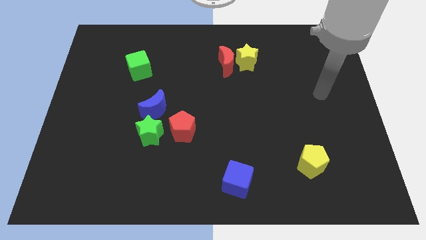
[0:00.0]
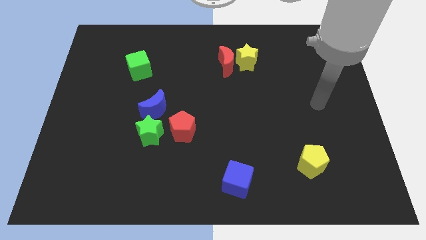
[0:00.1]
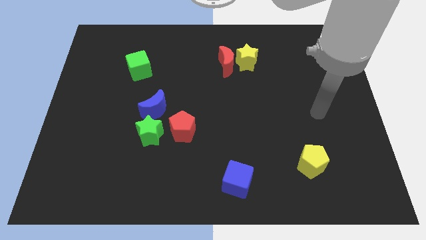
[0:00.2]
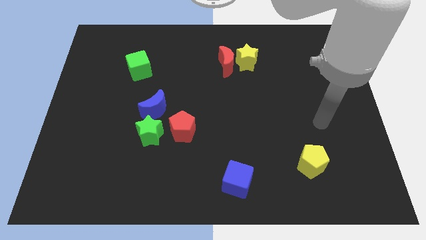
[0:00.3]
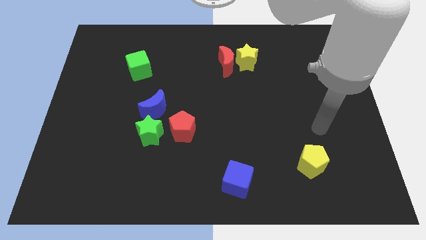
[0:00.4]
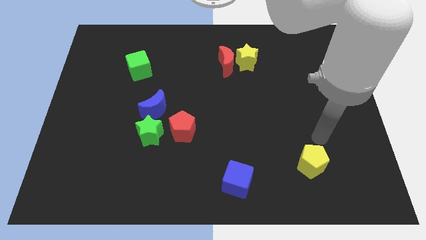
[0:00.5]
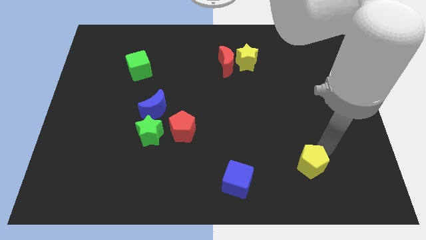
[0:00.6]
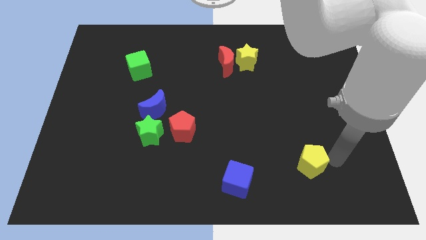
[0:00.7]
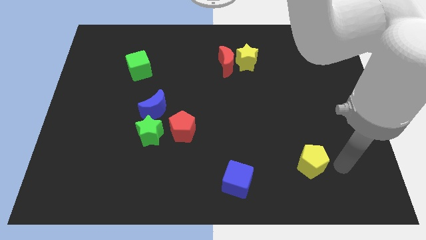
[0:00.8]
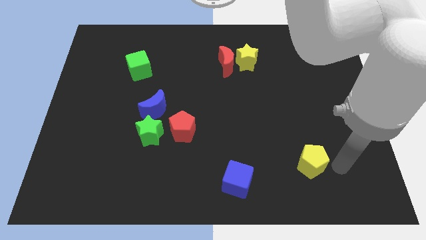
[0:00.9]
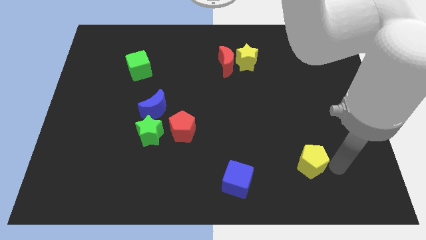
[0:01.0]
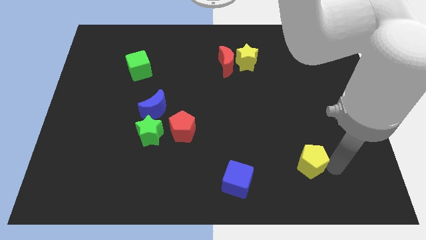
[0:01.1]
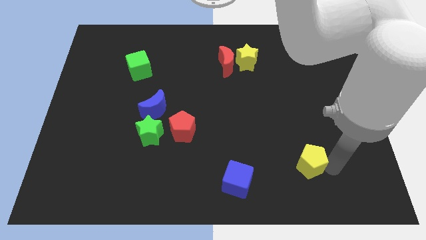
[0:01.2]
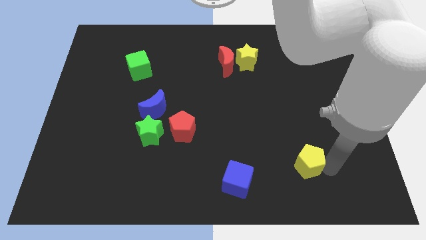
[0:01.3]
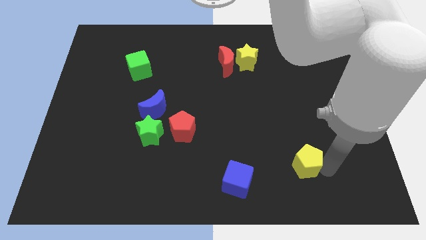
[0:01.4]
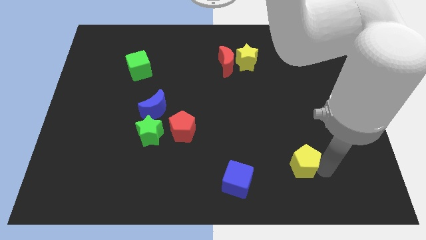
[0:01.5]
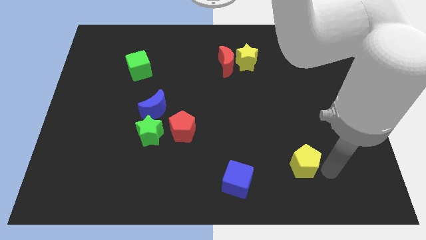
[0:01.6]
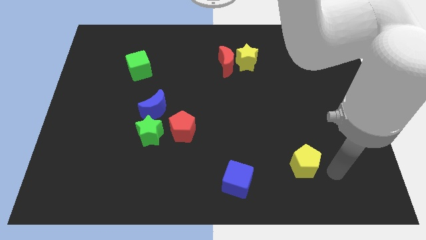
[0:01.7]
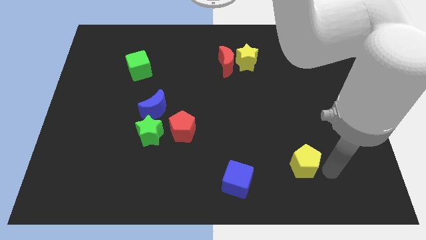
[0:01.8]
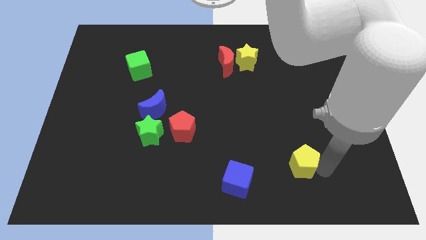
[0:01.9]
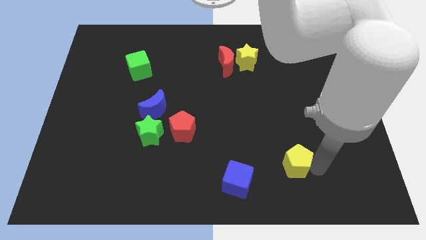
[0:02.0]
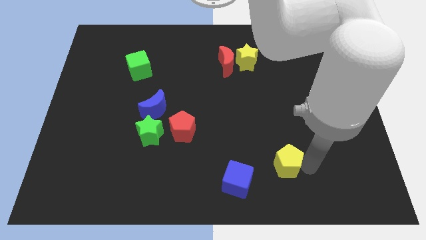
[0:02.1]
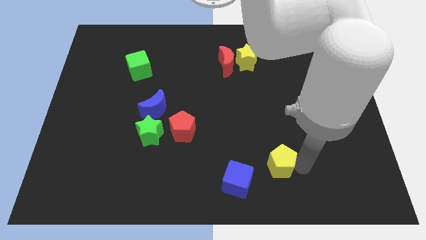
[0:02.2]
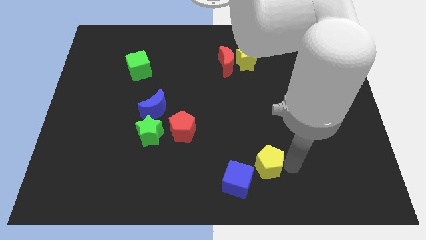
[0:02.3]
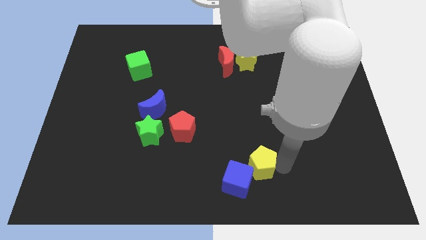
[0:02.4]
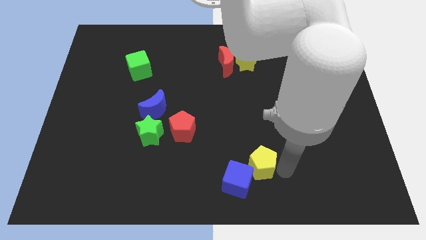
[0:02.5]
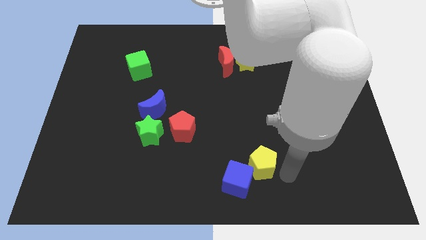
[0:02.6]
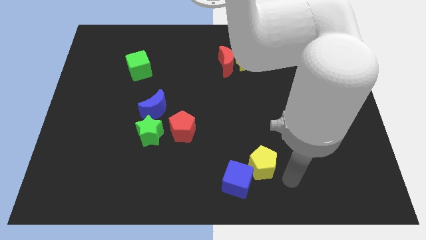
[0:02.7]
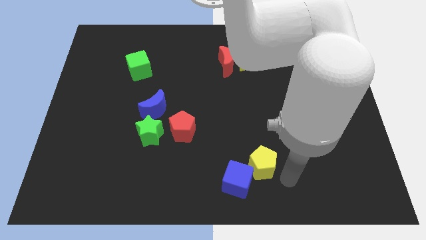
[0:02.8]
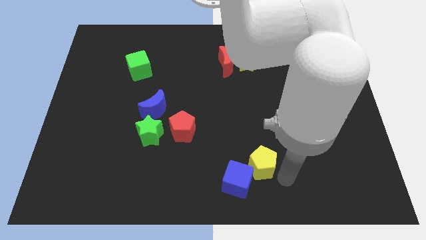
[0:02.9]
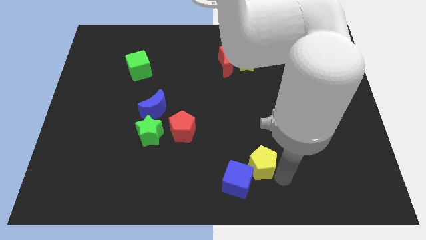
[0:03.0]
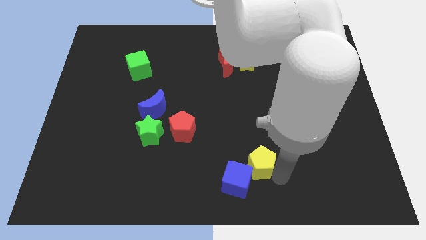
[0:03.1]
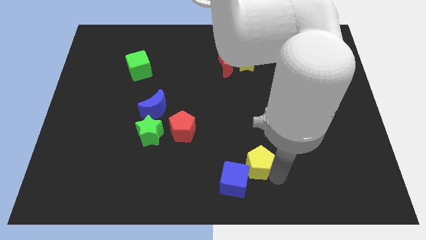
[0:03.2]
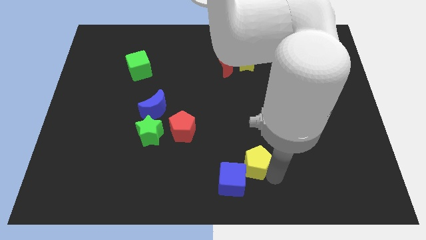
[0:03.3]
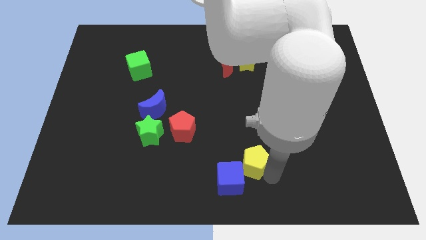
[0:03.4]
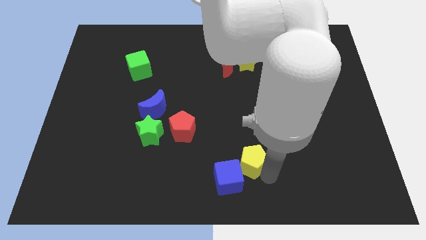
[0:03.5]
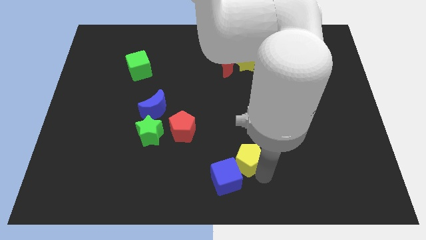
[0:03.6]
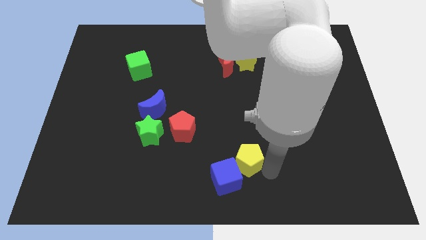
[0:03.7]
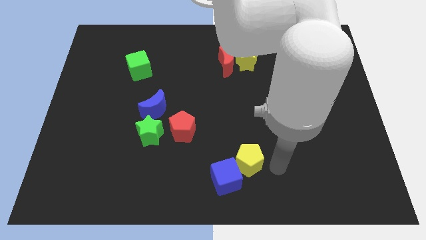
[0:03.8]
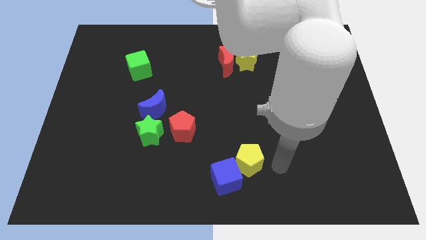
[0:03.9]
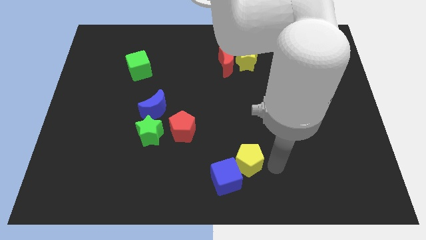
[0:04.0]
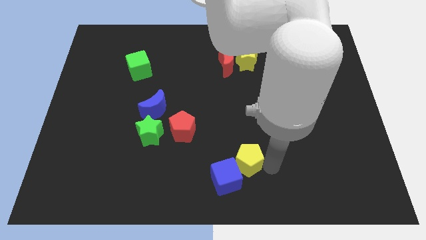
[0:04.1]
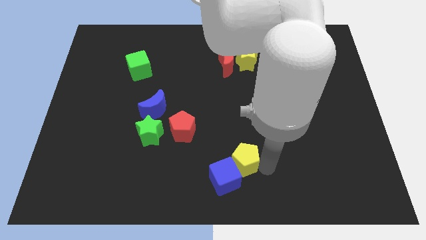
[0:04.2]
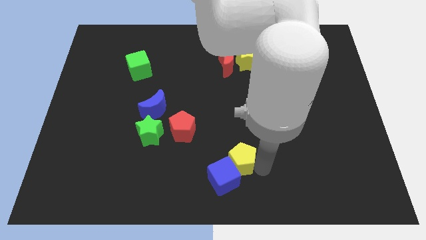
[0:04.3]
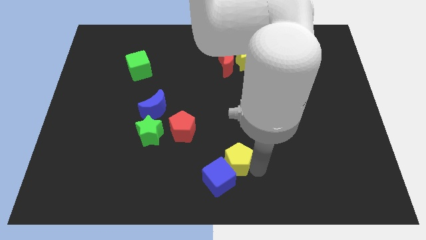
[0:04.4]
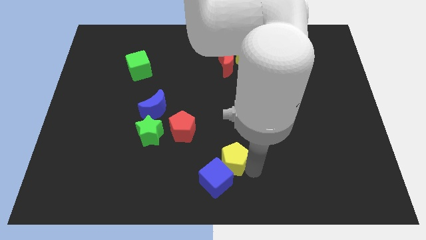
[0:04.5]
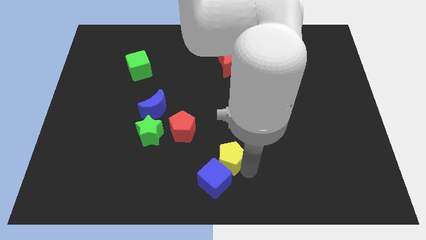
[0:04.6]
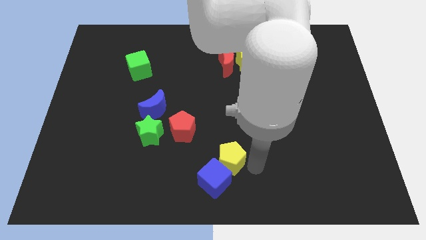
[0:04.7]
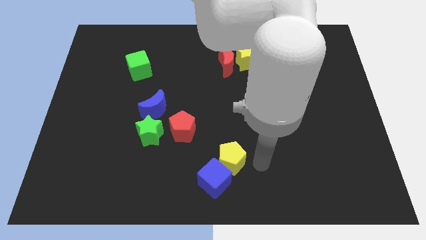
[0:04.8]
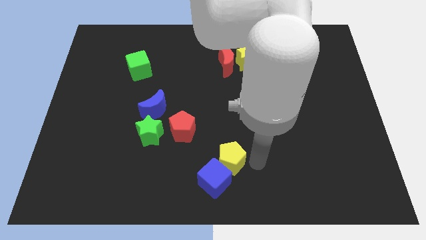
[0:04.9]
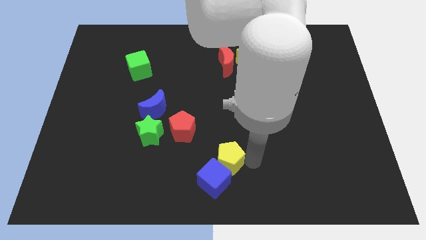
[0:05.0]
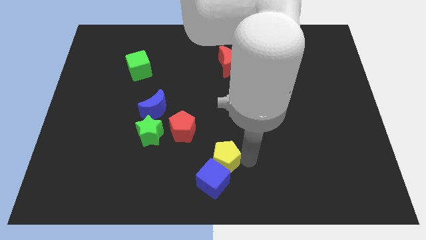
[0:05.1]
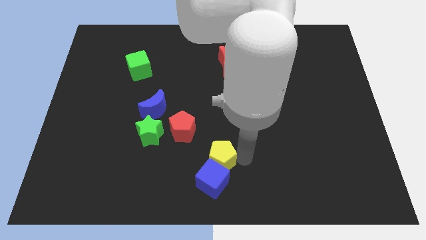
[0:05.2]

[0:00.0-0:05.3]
put the yellow pentagon to the top left of the blue cube

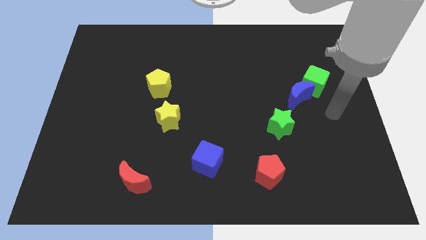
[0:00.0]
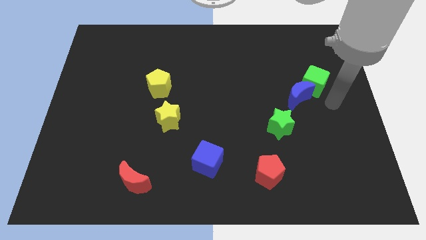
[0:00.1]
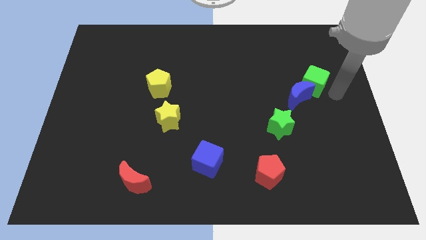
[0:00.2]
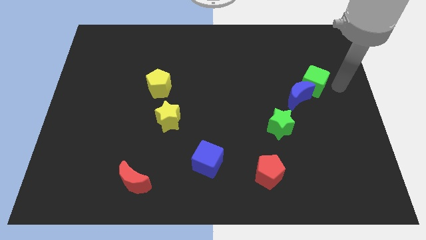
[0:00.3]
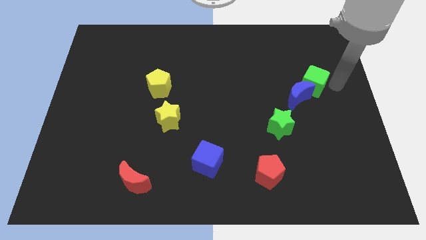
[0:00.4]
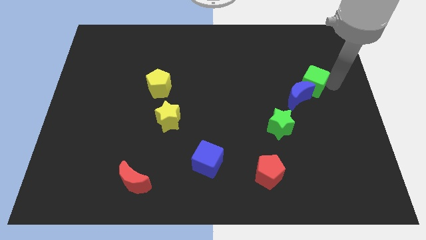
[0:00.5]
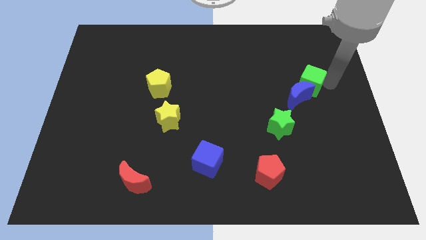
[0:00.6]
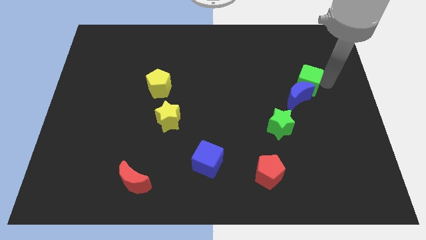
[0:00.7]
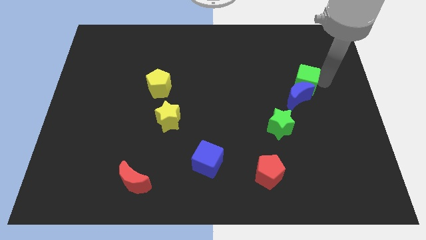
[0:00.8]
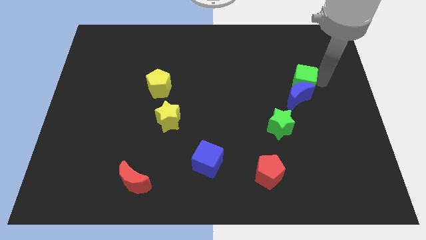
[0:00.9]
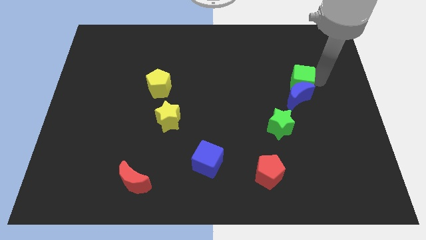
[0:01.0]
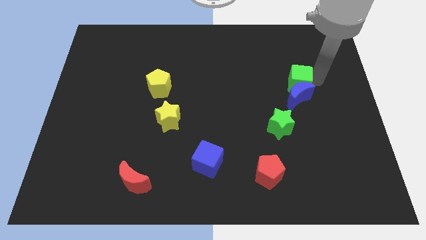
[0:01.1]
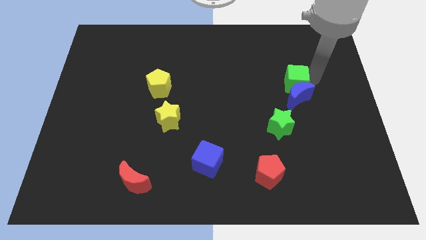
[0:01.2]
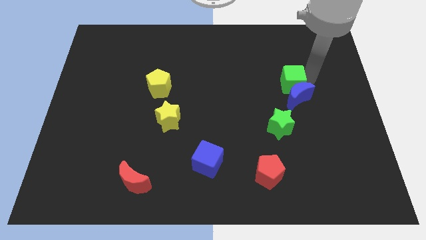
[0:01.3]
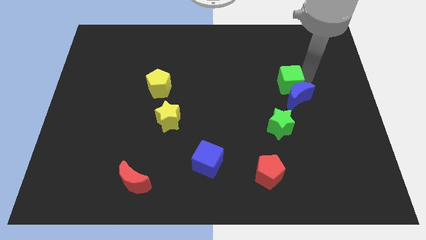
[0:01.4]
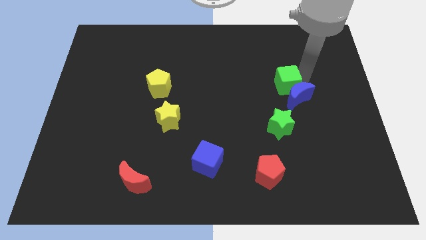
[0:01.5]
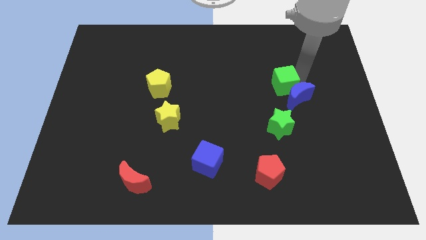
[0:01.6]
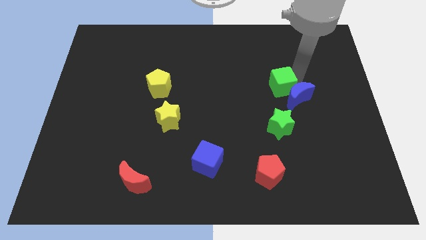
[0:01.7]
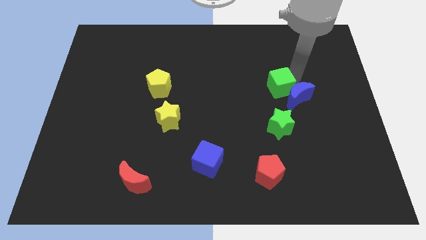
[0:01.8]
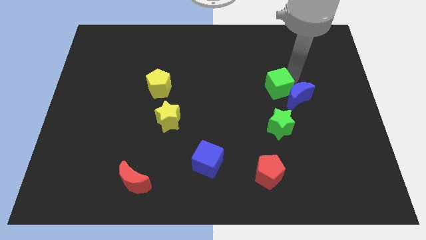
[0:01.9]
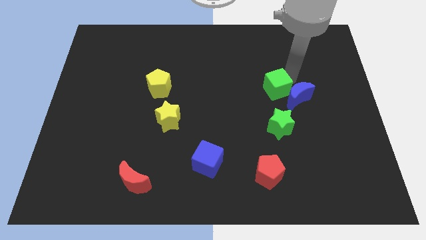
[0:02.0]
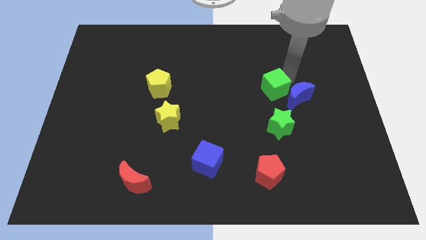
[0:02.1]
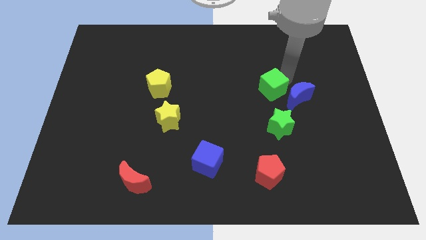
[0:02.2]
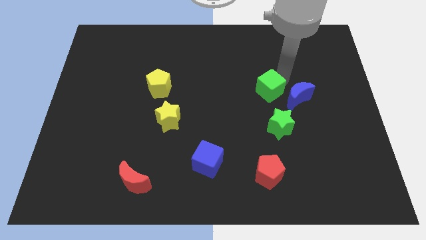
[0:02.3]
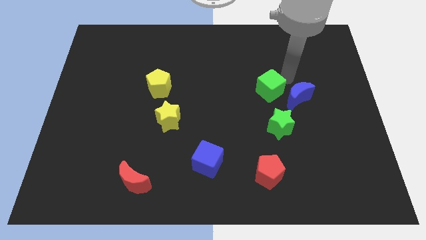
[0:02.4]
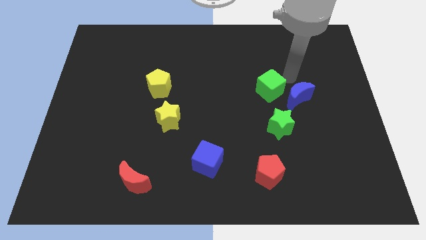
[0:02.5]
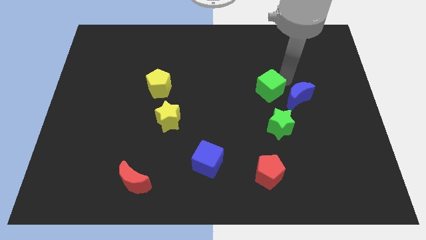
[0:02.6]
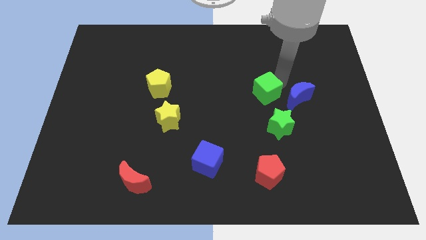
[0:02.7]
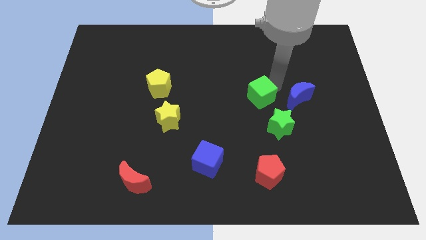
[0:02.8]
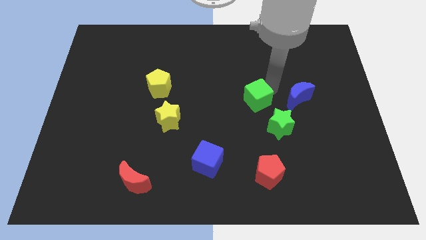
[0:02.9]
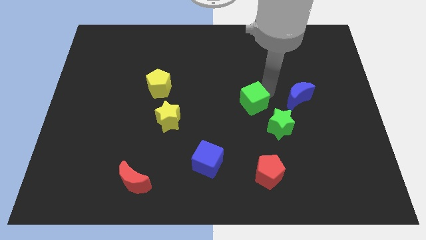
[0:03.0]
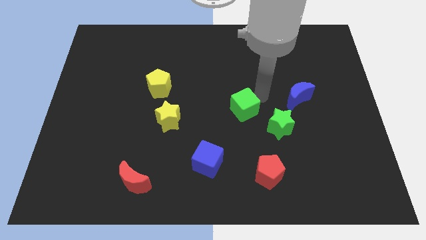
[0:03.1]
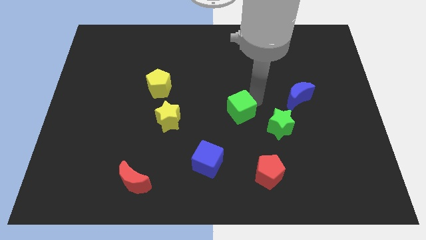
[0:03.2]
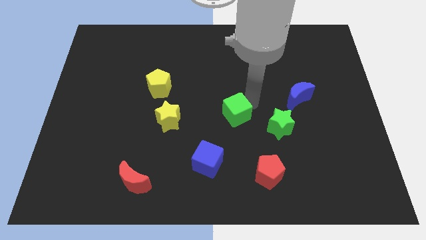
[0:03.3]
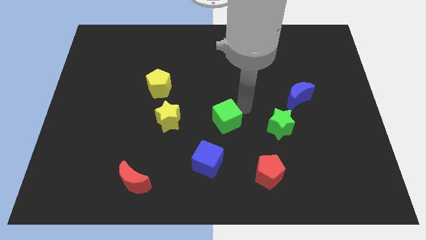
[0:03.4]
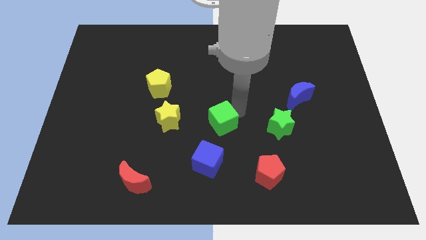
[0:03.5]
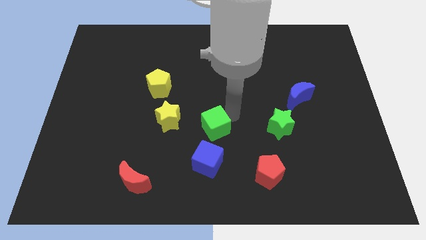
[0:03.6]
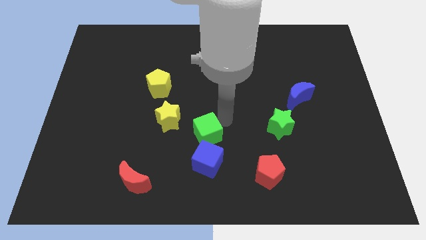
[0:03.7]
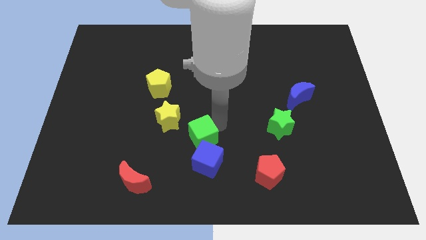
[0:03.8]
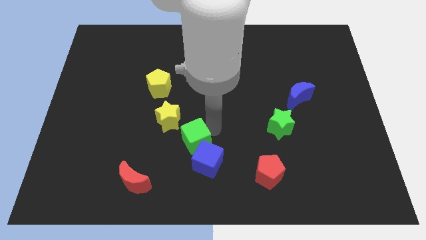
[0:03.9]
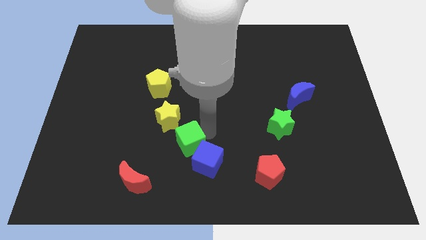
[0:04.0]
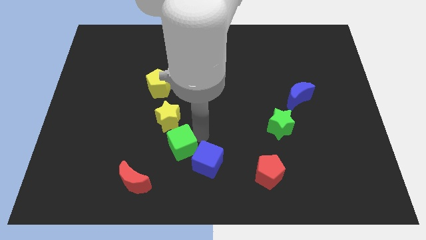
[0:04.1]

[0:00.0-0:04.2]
move the green cube to the bottom side of the yellow star
